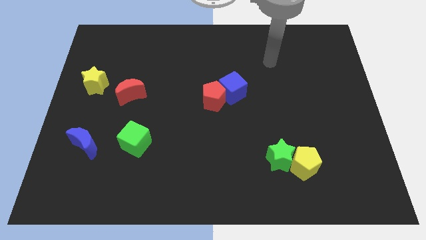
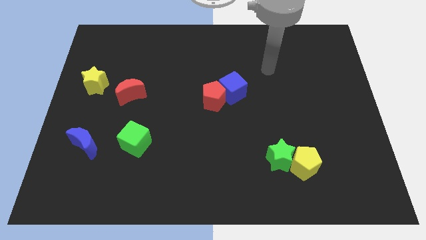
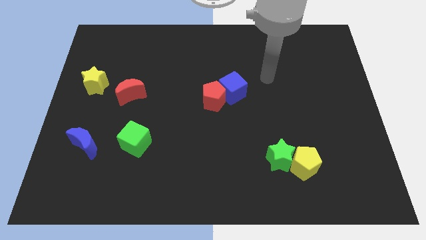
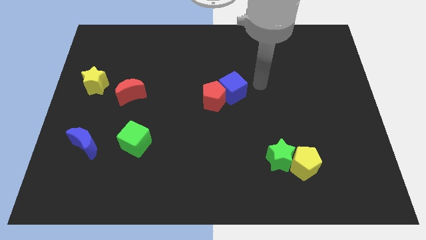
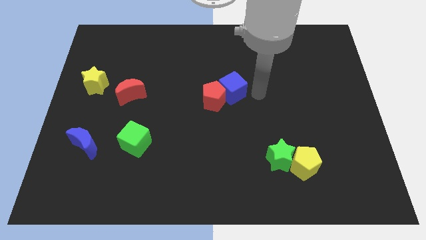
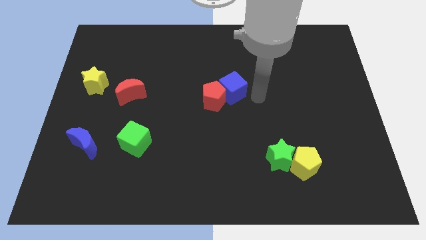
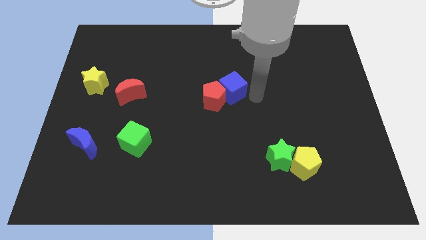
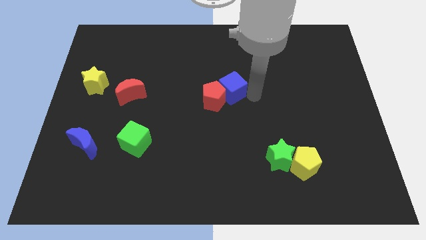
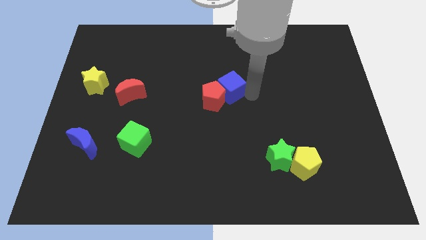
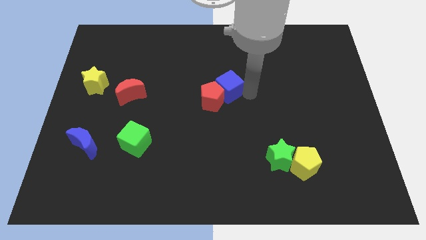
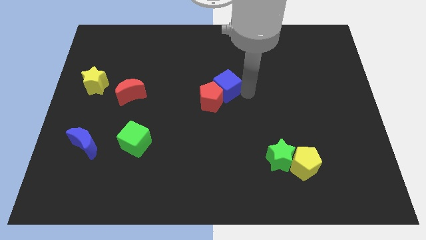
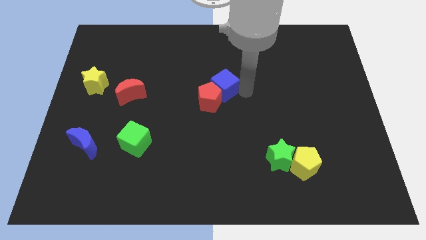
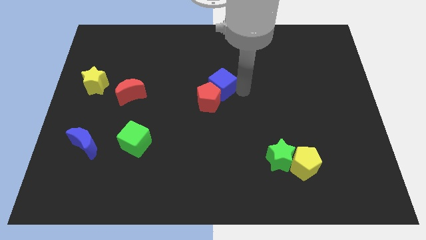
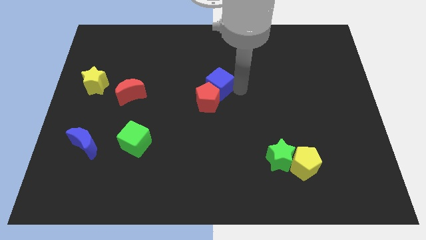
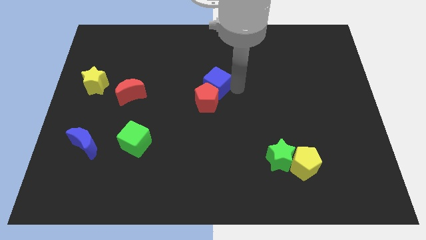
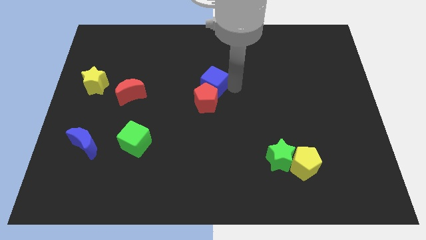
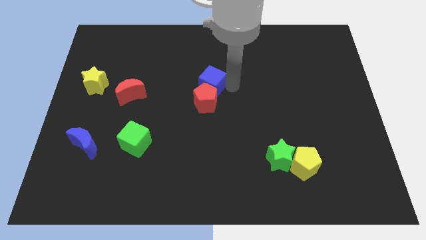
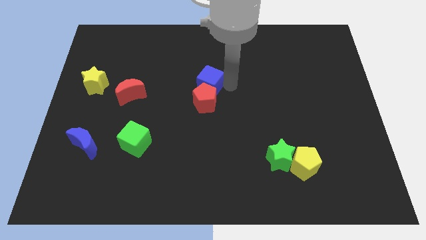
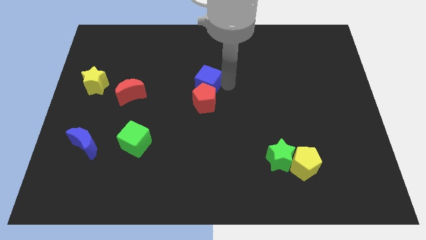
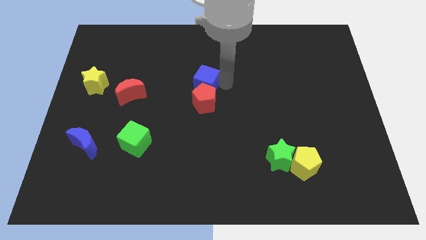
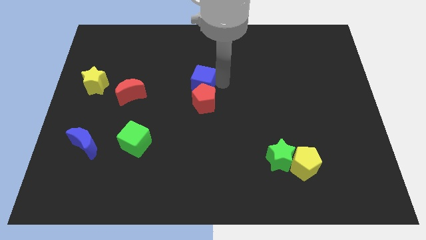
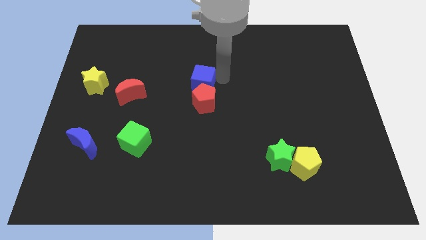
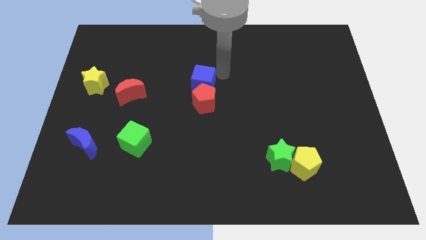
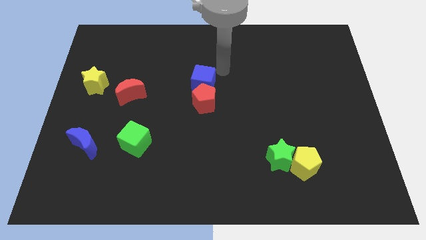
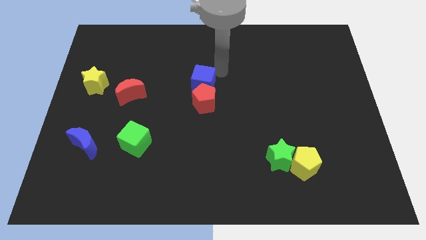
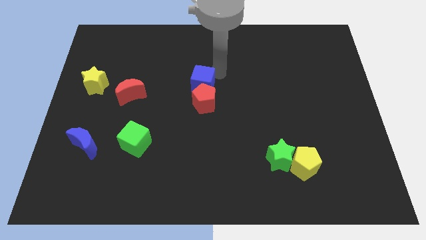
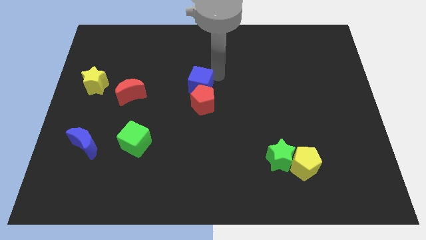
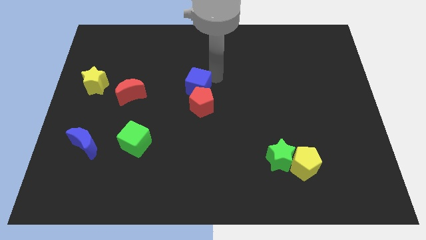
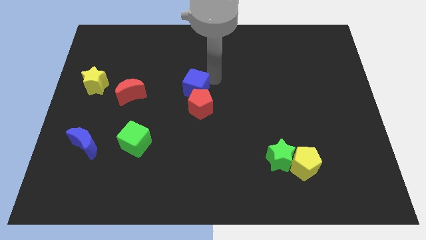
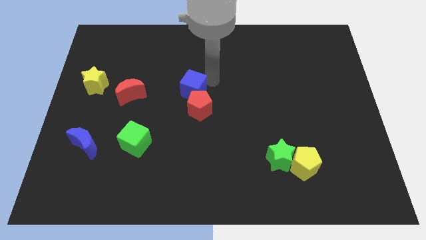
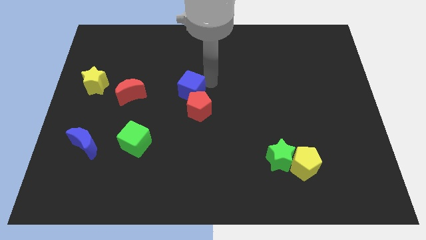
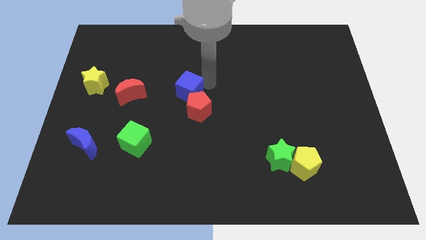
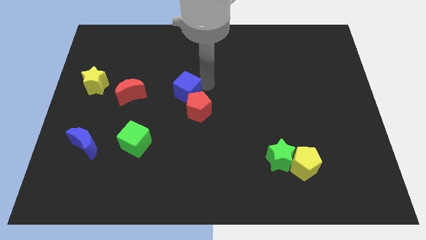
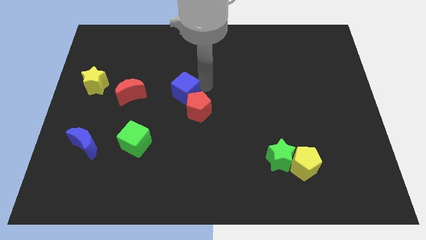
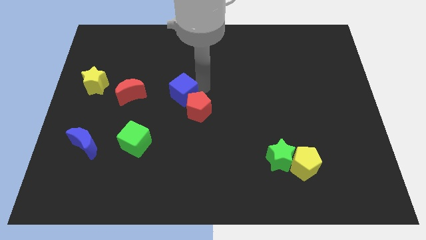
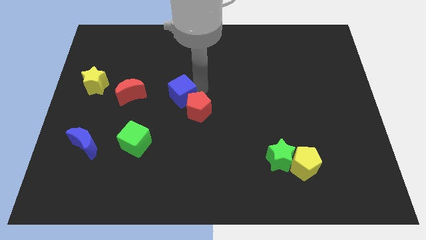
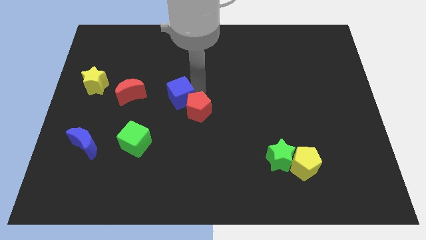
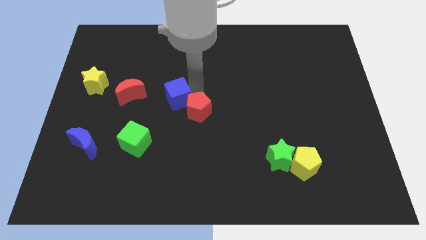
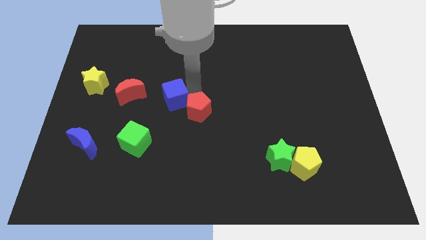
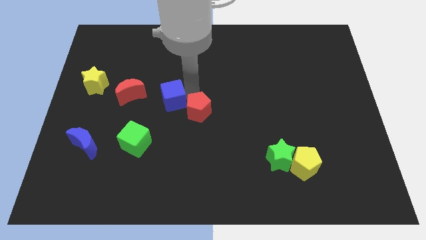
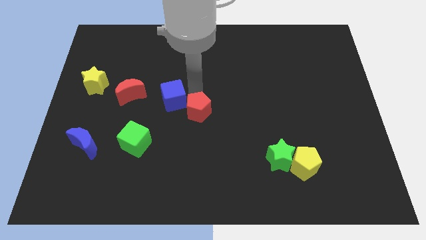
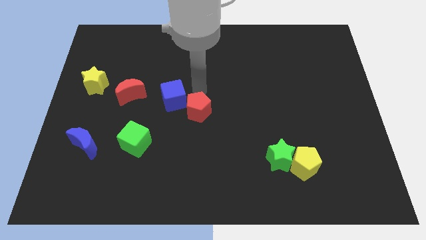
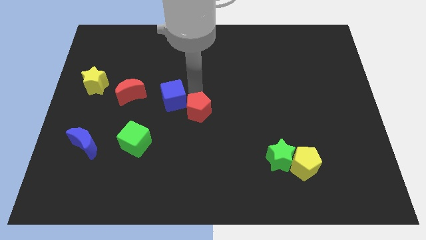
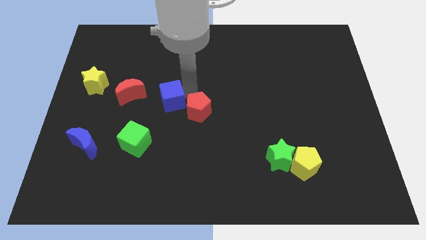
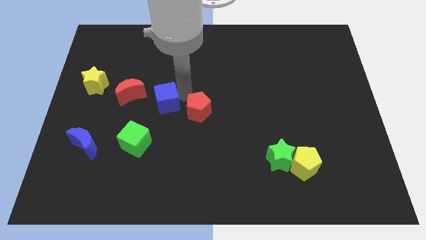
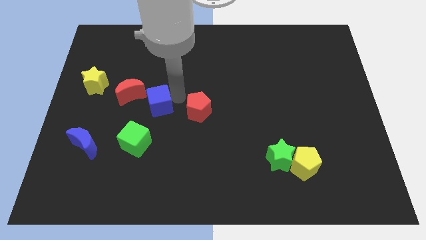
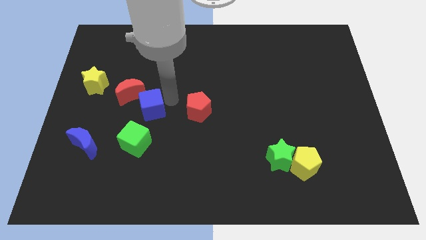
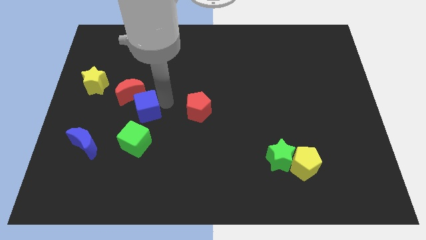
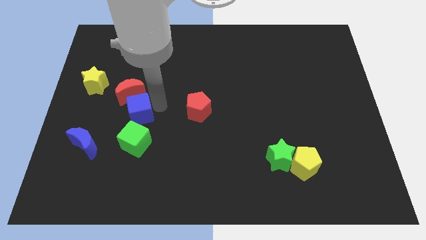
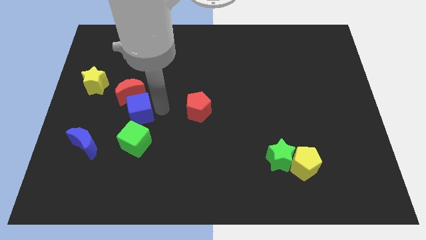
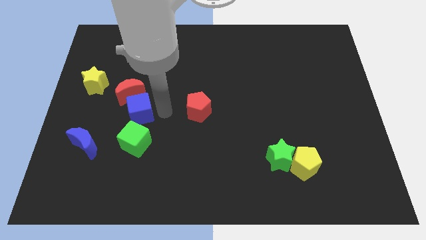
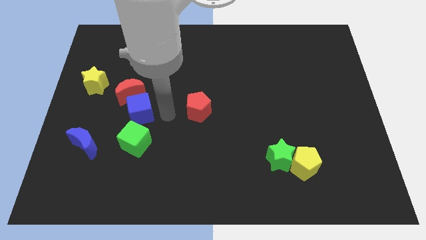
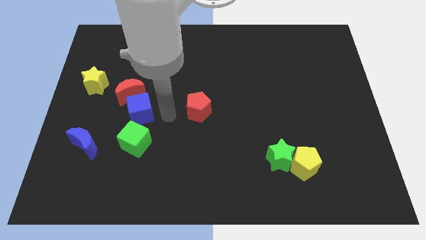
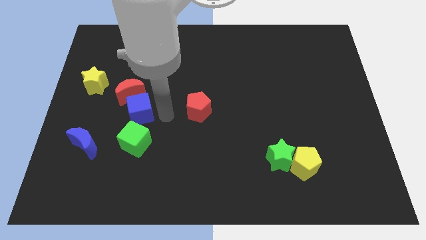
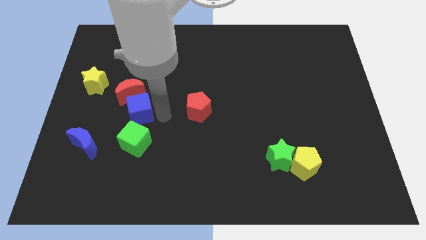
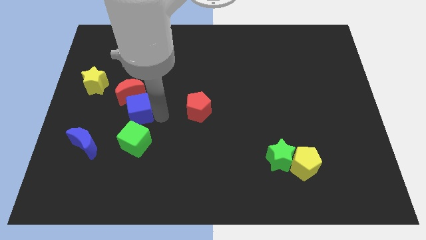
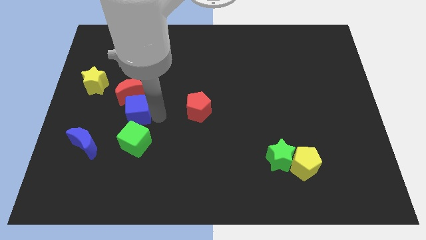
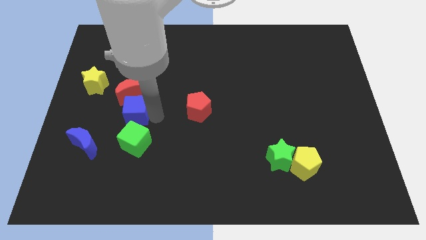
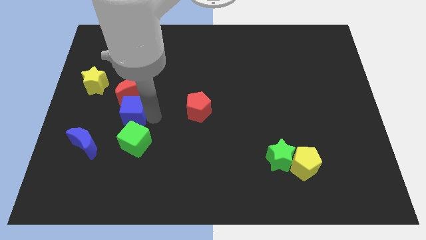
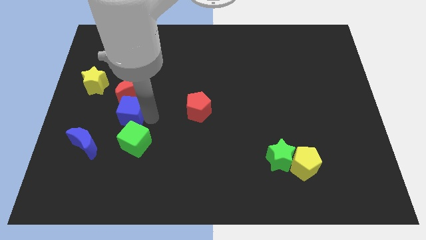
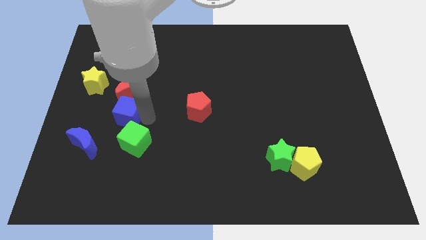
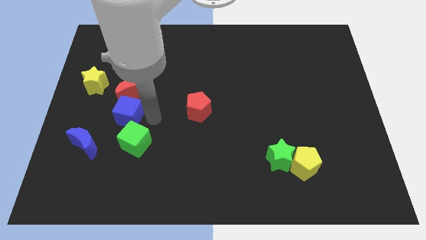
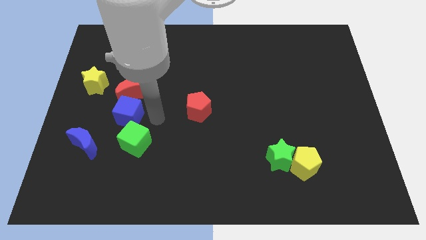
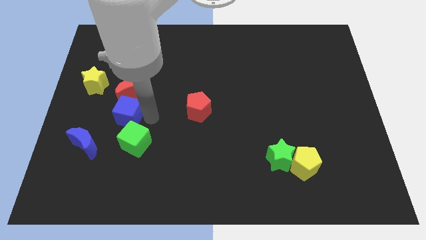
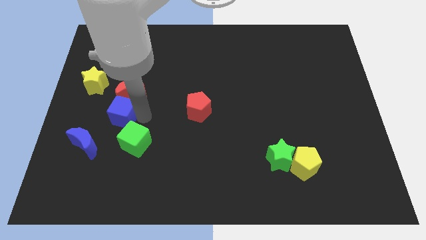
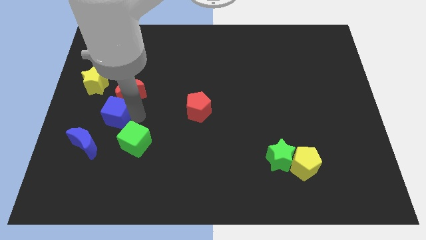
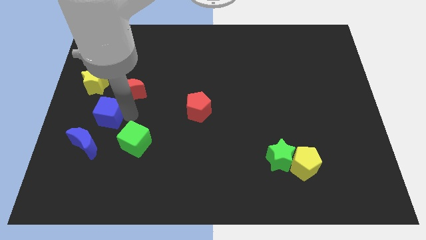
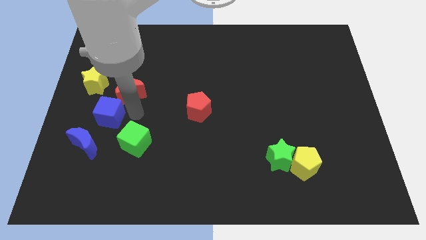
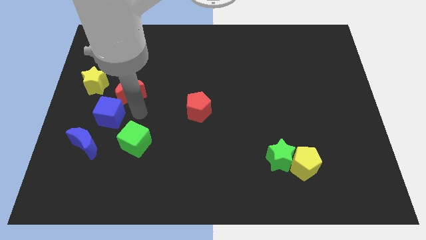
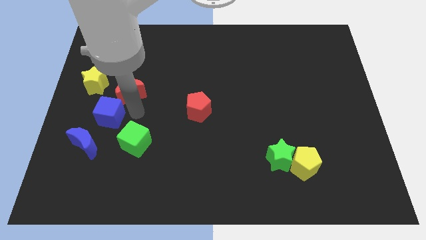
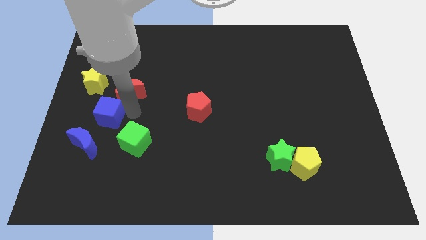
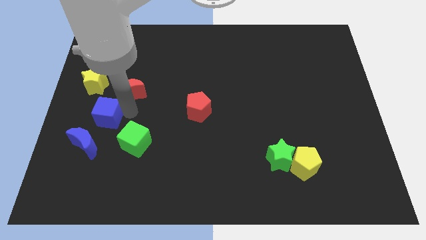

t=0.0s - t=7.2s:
push the blue cube below the yellow star

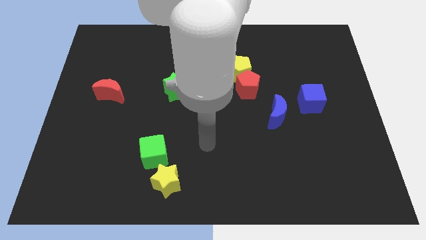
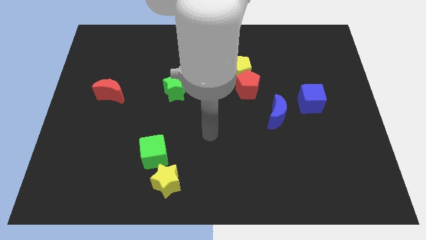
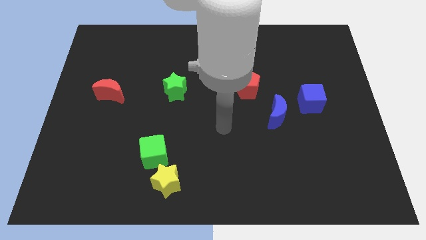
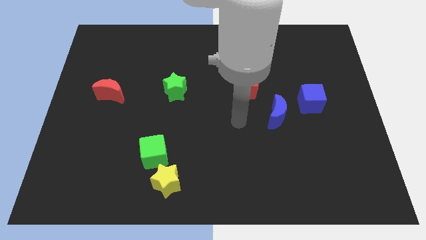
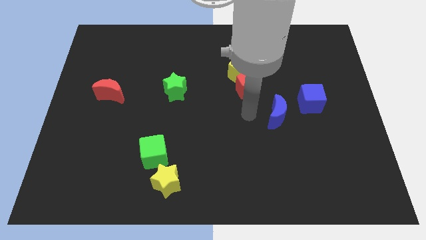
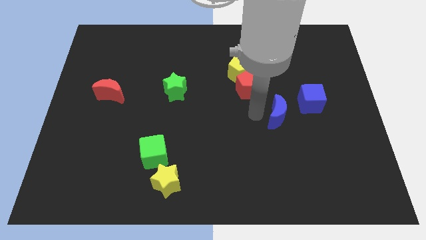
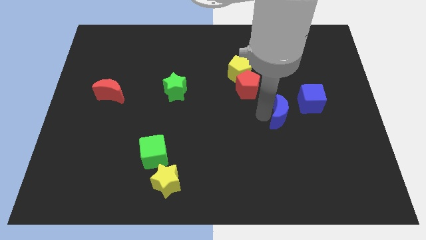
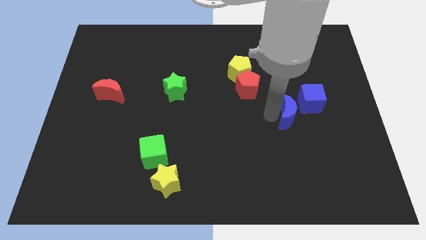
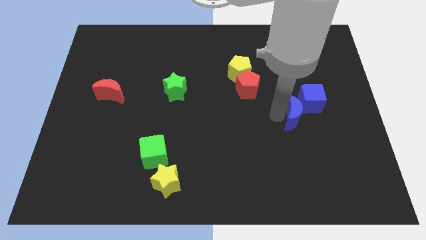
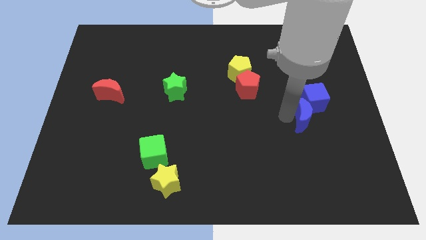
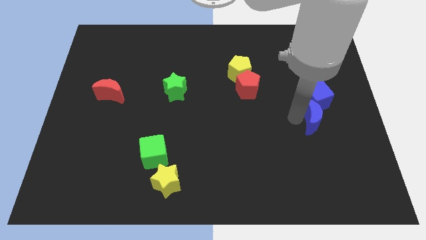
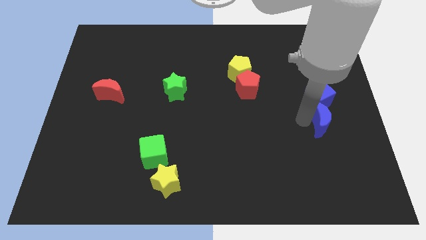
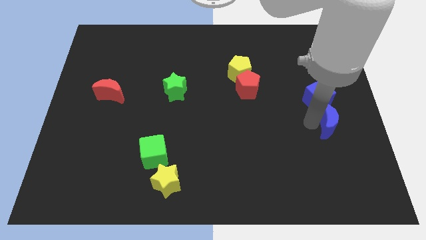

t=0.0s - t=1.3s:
put the blue moon to the bottom right of the blue cube
